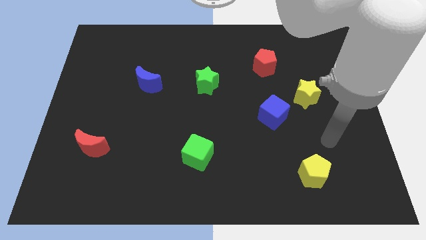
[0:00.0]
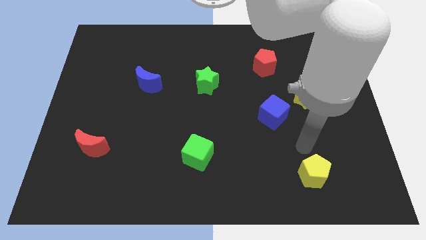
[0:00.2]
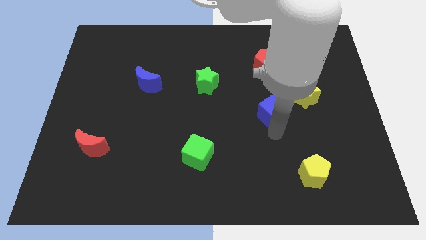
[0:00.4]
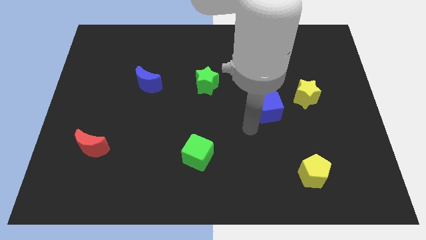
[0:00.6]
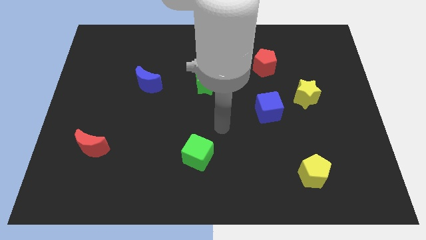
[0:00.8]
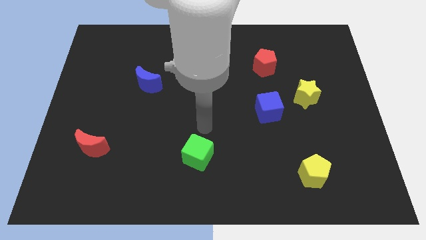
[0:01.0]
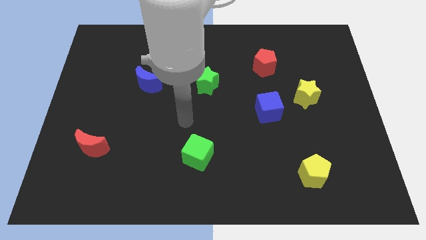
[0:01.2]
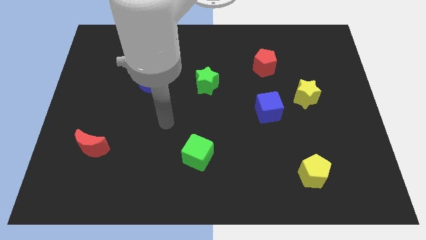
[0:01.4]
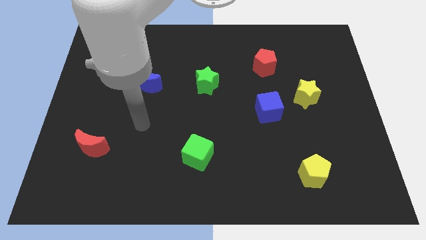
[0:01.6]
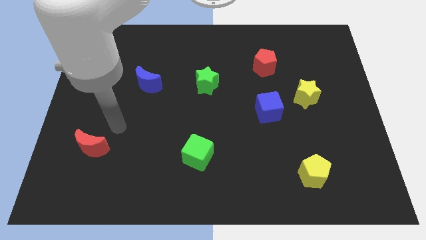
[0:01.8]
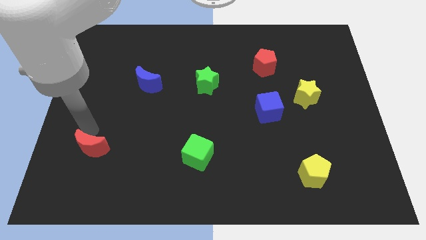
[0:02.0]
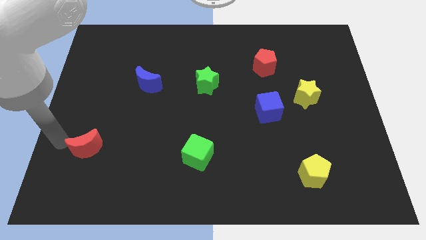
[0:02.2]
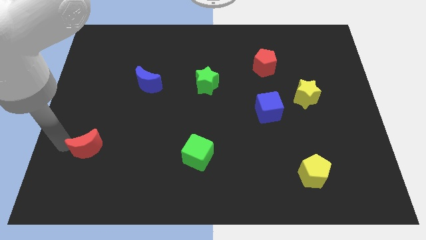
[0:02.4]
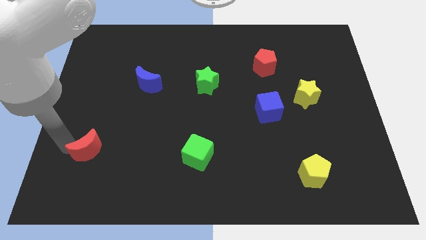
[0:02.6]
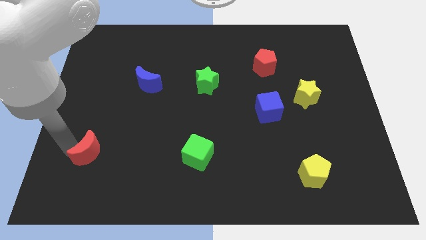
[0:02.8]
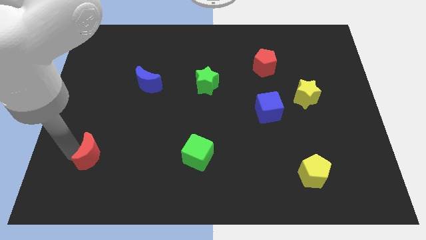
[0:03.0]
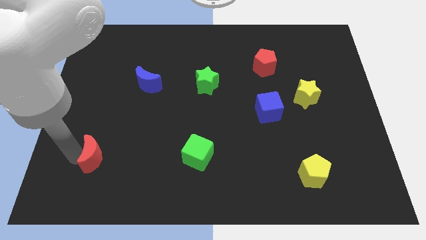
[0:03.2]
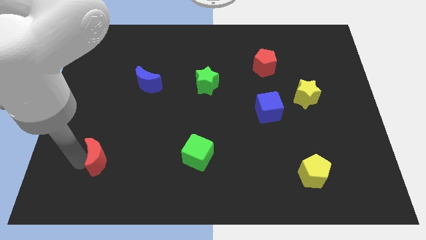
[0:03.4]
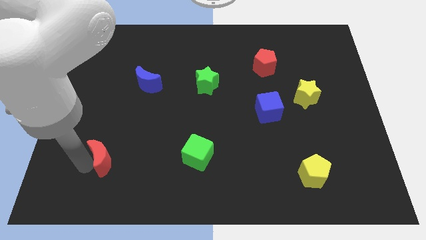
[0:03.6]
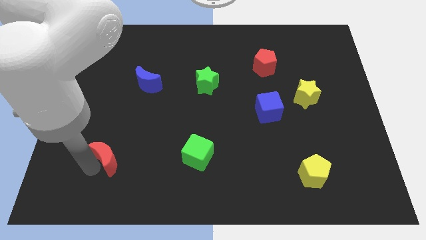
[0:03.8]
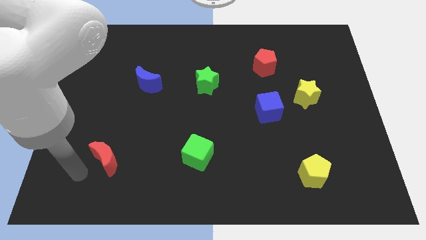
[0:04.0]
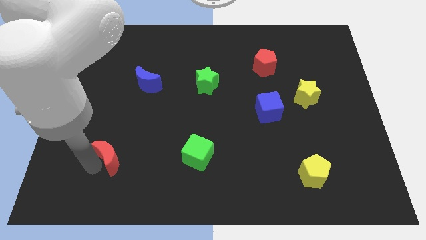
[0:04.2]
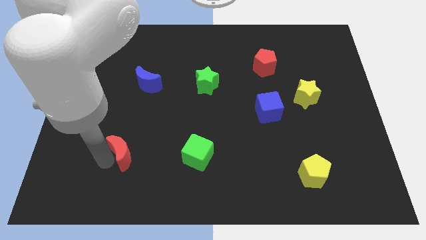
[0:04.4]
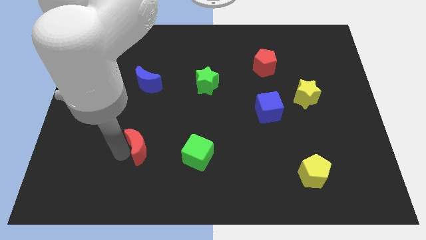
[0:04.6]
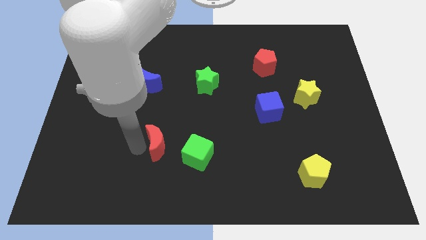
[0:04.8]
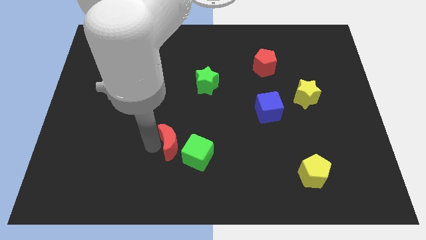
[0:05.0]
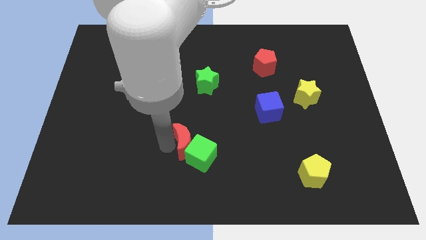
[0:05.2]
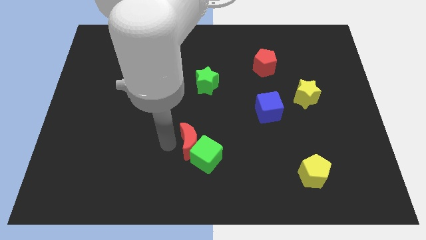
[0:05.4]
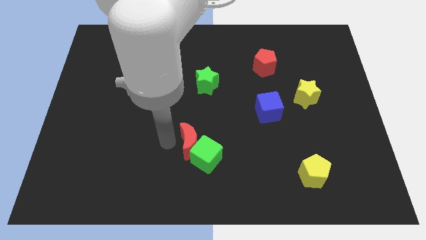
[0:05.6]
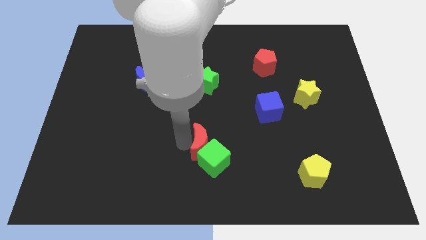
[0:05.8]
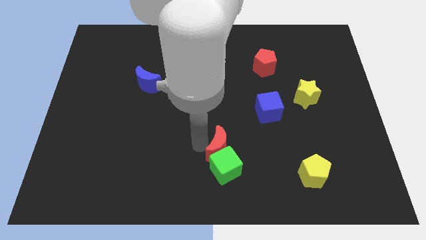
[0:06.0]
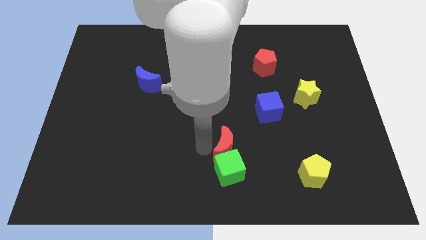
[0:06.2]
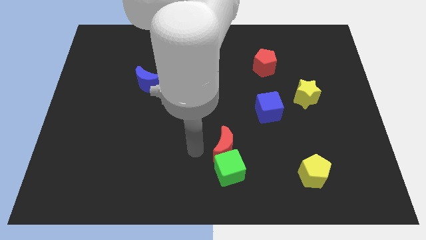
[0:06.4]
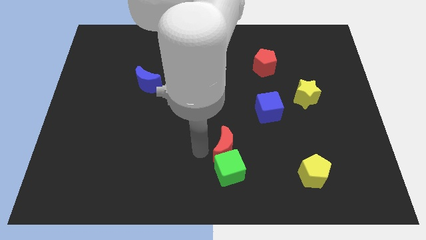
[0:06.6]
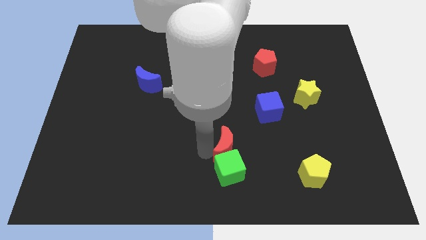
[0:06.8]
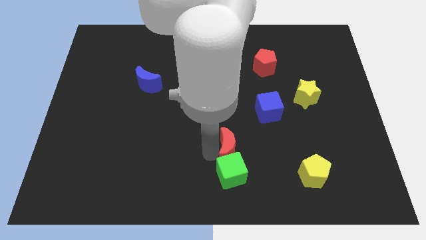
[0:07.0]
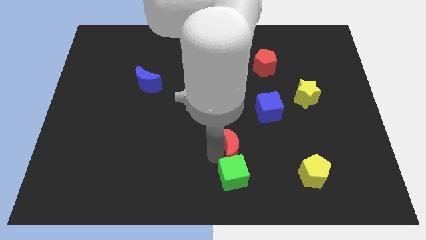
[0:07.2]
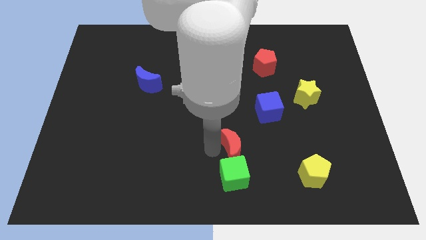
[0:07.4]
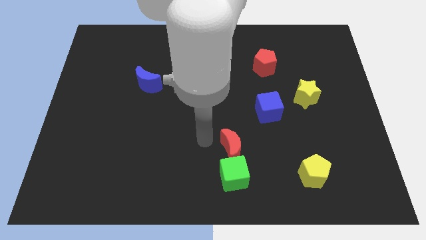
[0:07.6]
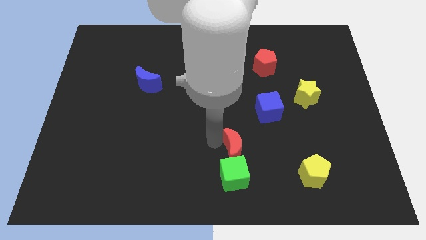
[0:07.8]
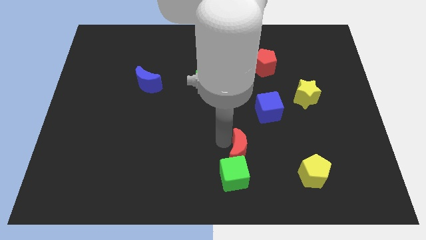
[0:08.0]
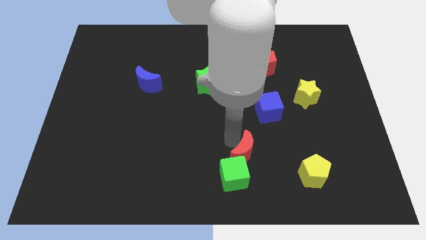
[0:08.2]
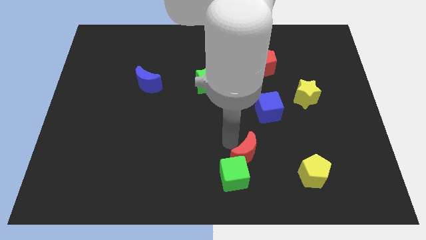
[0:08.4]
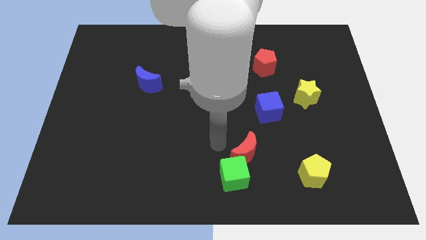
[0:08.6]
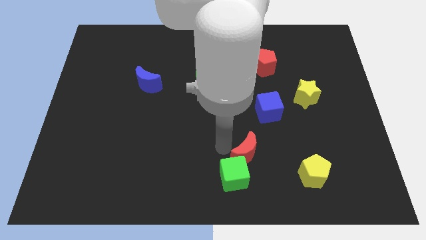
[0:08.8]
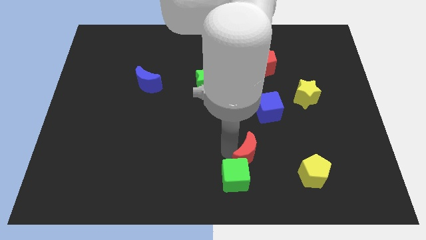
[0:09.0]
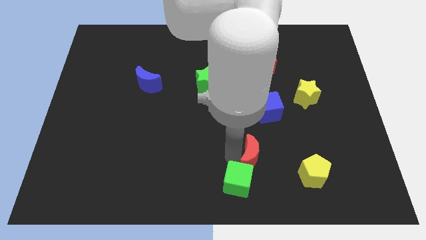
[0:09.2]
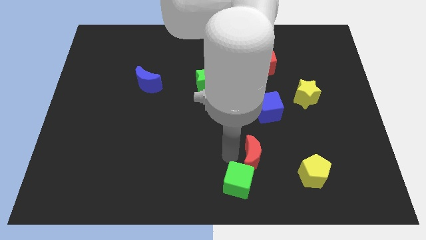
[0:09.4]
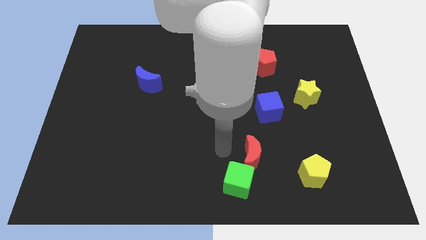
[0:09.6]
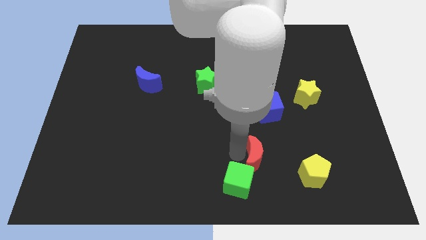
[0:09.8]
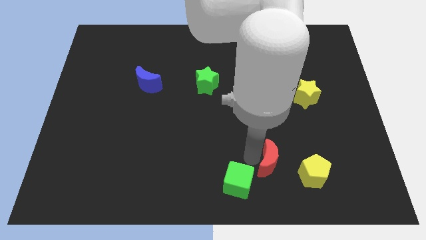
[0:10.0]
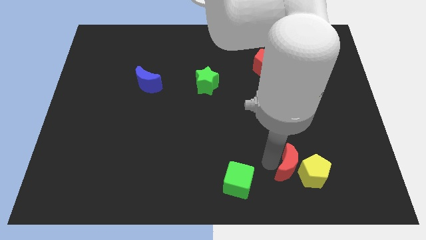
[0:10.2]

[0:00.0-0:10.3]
move the red moon towards the yellow pentagon

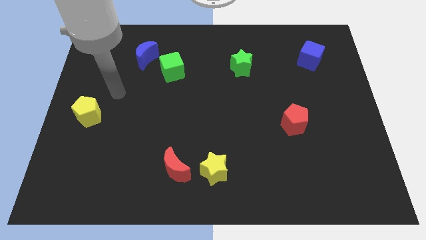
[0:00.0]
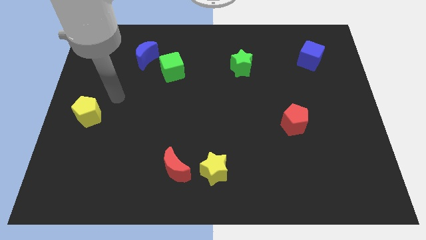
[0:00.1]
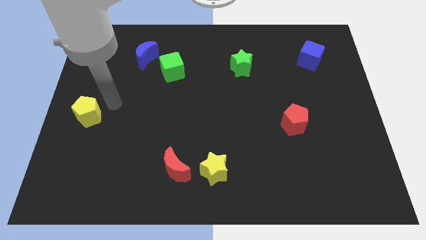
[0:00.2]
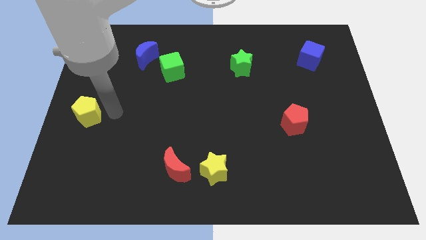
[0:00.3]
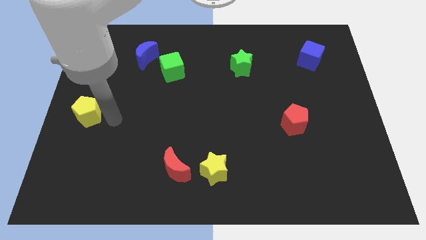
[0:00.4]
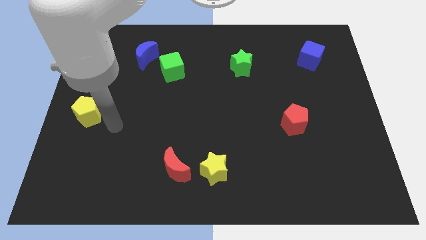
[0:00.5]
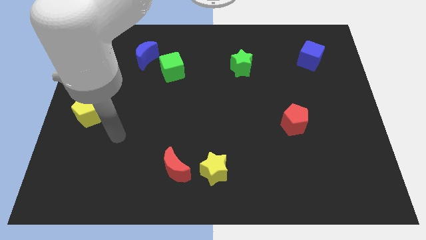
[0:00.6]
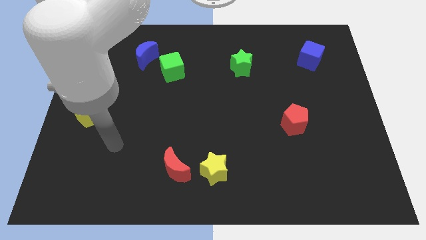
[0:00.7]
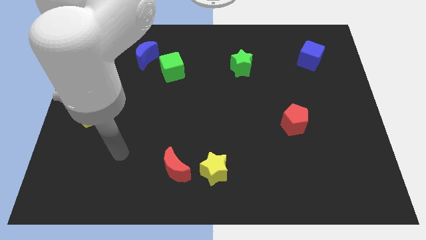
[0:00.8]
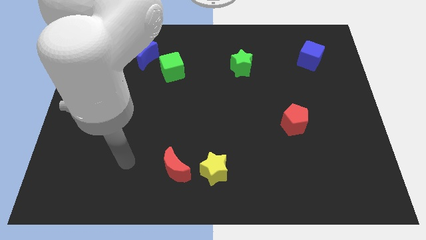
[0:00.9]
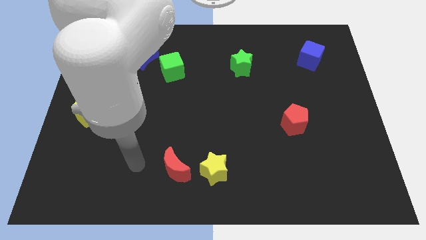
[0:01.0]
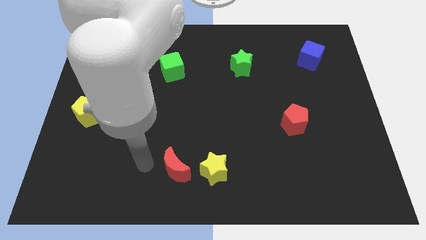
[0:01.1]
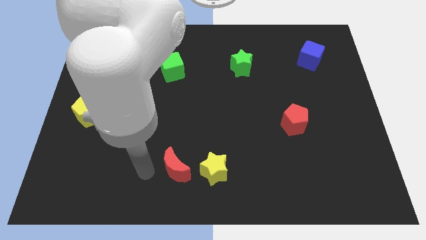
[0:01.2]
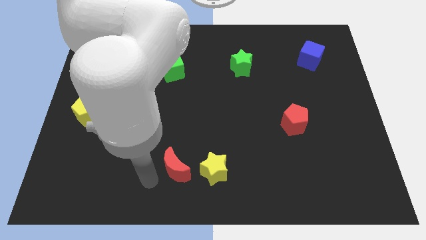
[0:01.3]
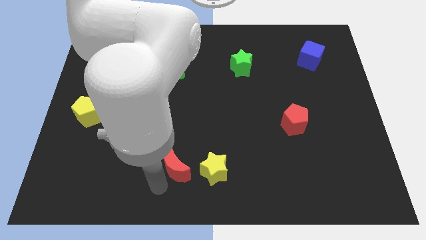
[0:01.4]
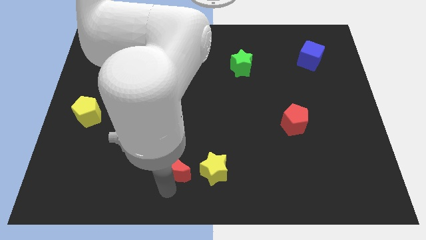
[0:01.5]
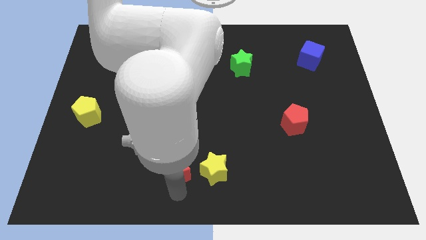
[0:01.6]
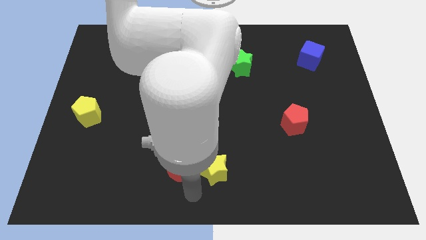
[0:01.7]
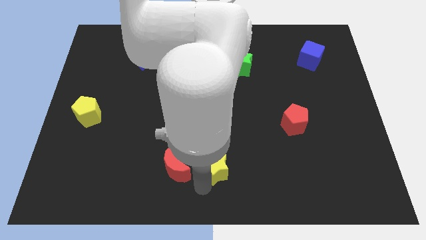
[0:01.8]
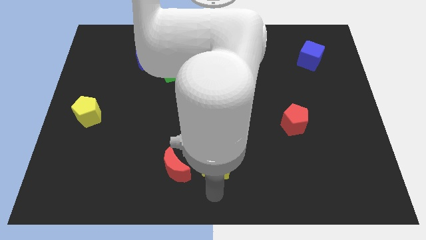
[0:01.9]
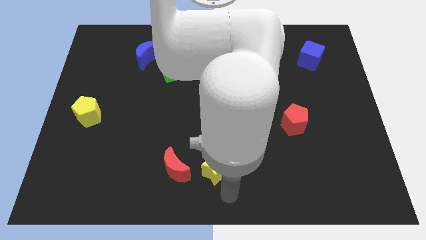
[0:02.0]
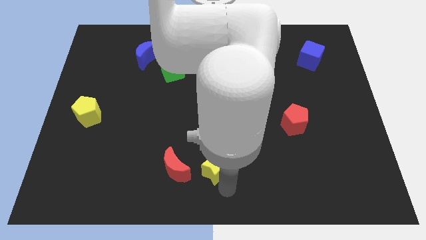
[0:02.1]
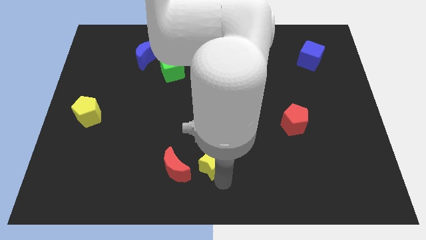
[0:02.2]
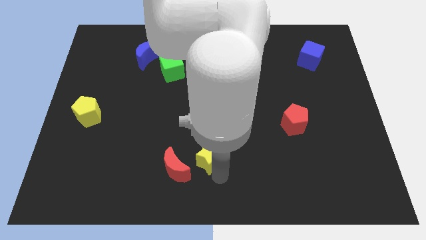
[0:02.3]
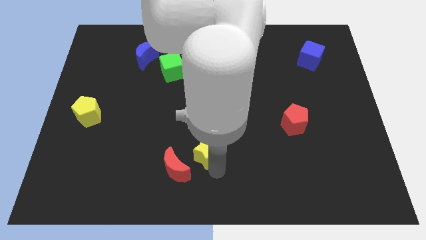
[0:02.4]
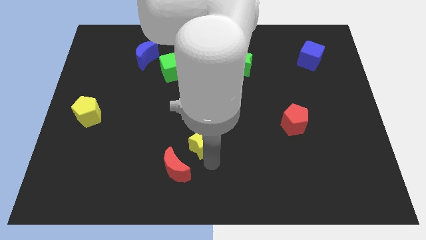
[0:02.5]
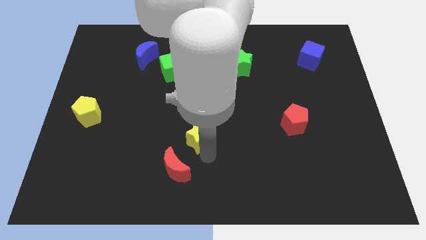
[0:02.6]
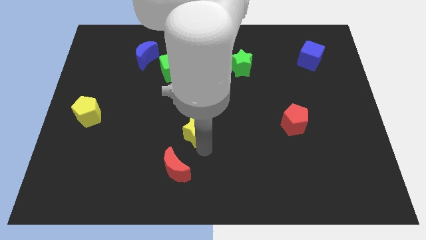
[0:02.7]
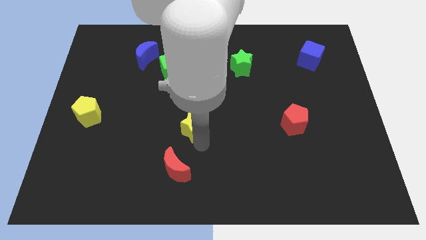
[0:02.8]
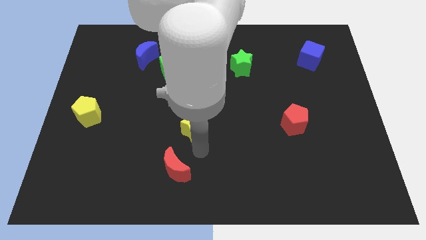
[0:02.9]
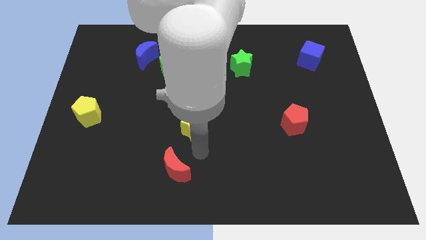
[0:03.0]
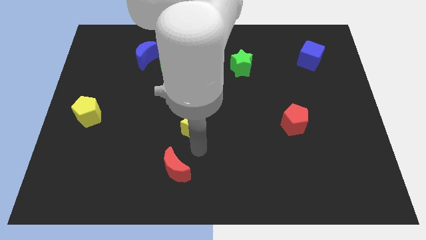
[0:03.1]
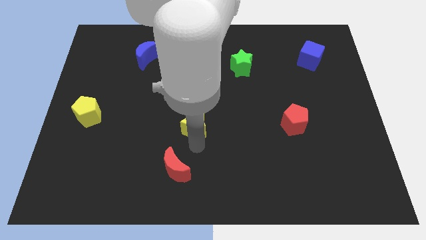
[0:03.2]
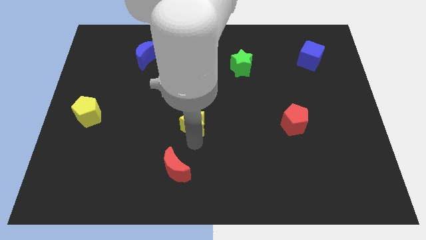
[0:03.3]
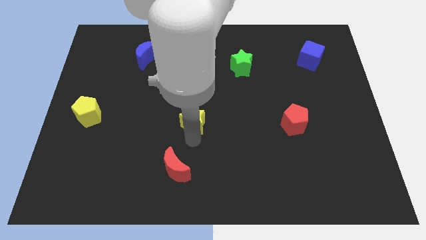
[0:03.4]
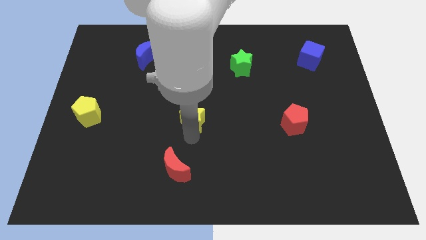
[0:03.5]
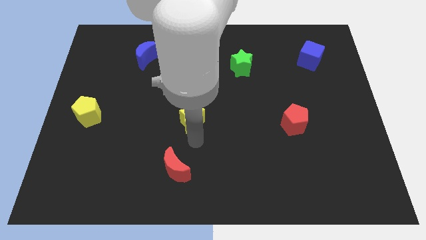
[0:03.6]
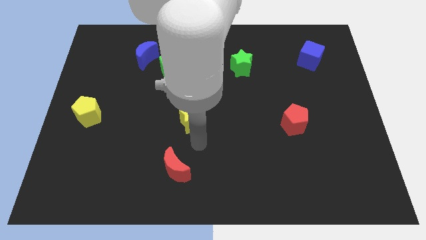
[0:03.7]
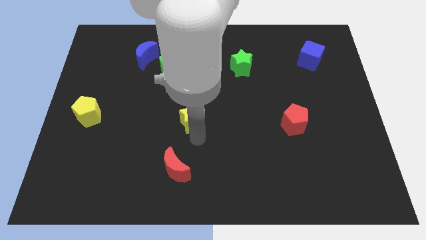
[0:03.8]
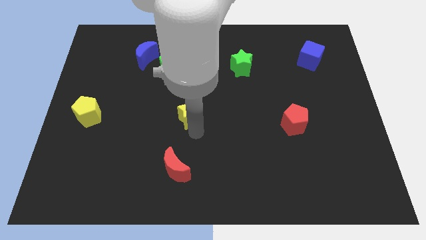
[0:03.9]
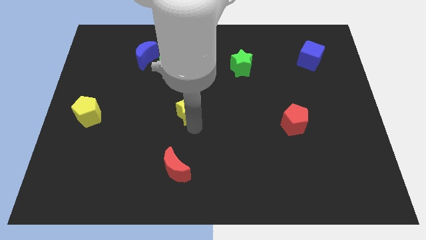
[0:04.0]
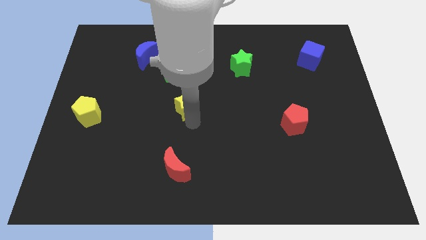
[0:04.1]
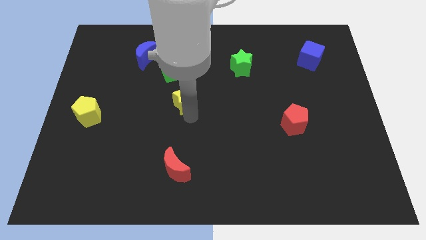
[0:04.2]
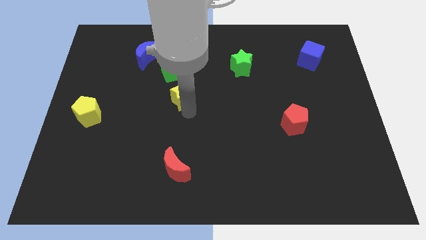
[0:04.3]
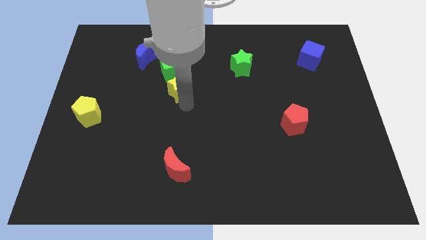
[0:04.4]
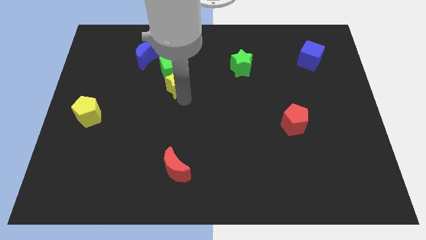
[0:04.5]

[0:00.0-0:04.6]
push the yellow star next to the green cube
